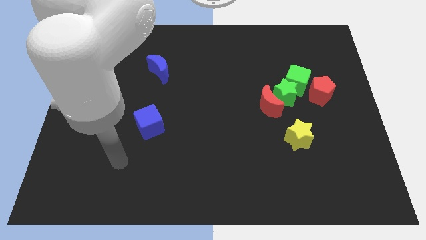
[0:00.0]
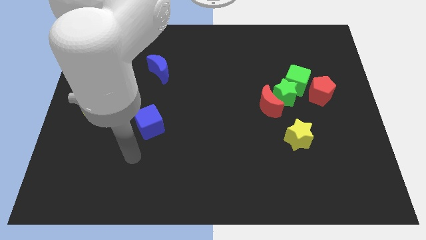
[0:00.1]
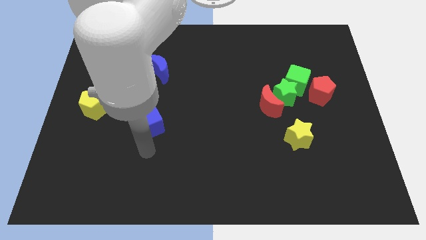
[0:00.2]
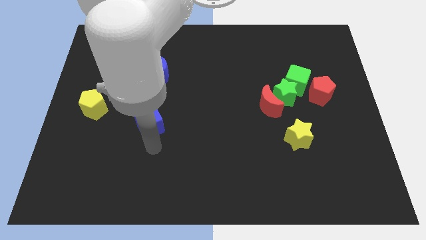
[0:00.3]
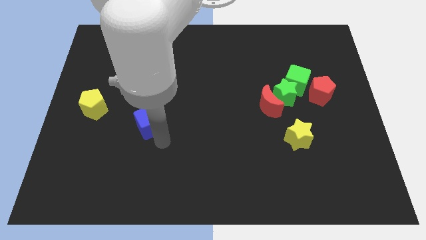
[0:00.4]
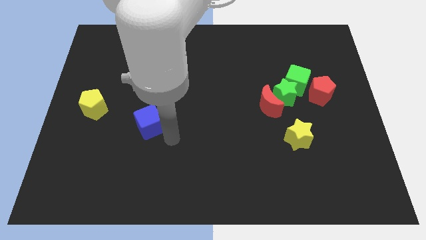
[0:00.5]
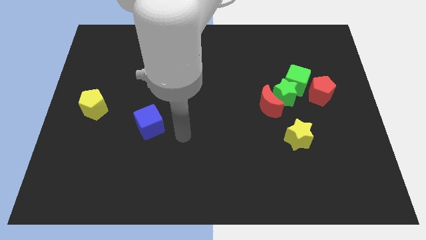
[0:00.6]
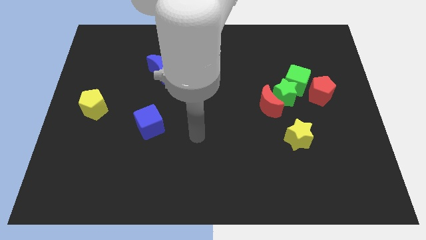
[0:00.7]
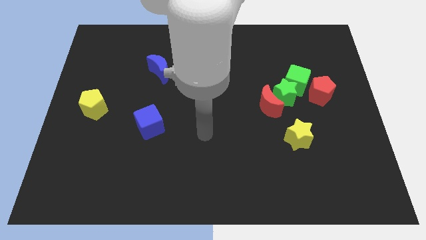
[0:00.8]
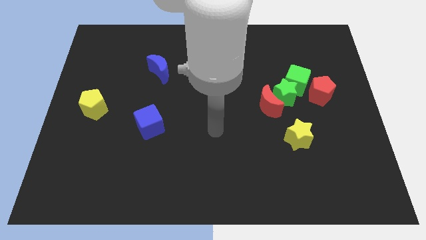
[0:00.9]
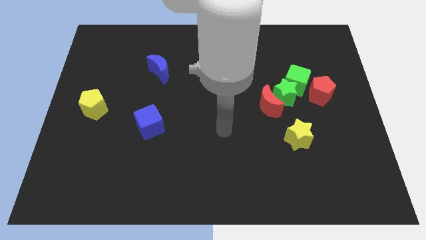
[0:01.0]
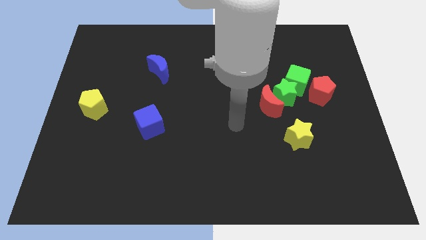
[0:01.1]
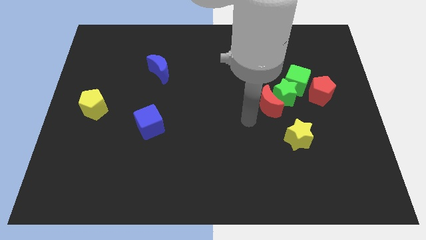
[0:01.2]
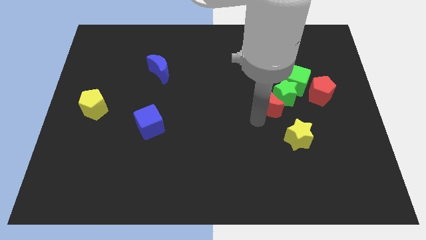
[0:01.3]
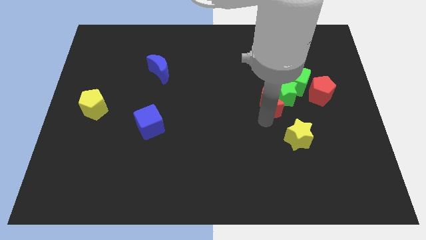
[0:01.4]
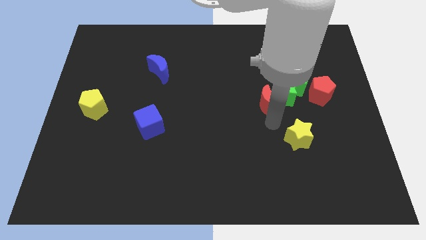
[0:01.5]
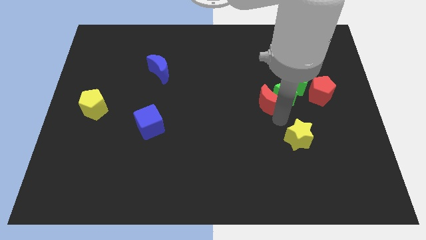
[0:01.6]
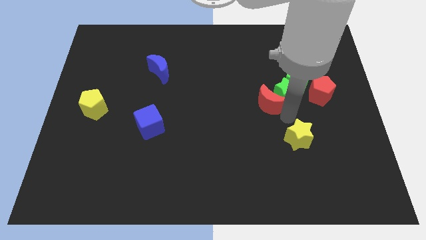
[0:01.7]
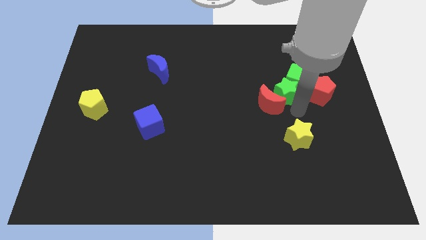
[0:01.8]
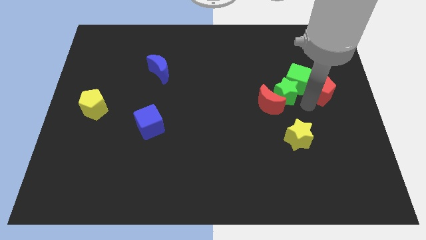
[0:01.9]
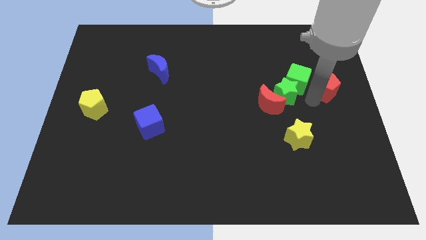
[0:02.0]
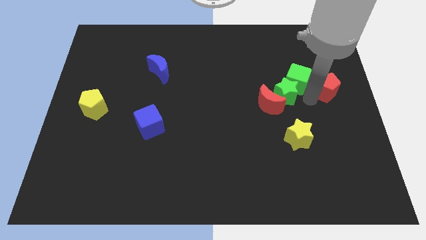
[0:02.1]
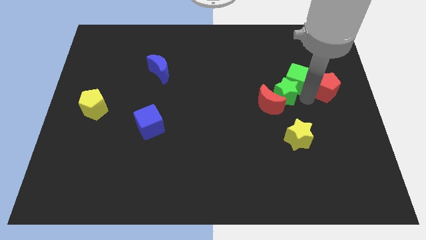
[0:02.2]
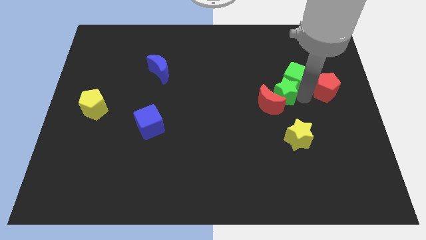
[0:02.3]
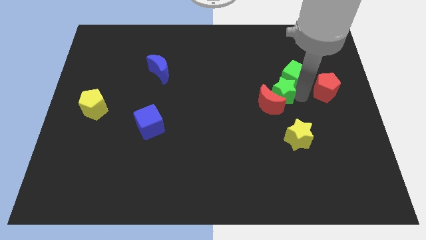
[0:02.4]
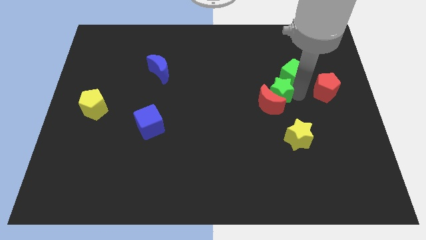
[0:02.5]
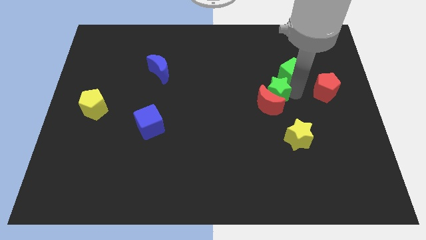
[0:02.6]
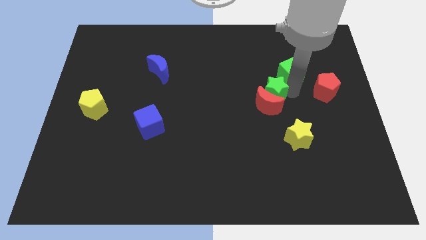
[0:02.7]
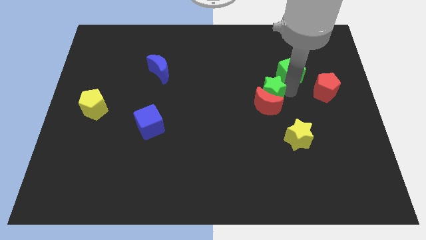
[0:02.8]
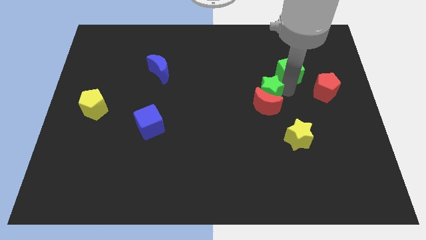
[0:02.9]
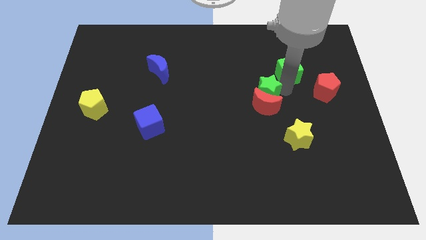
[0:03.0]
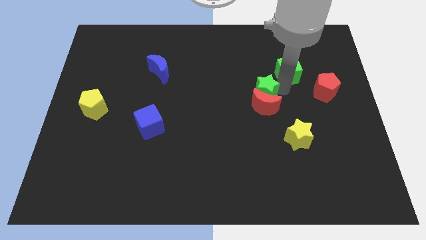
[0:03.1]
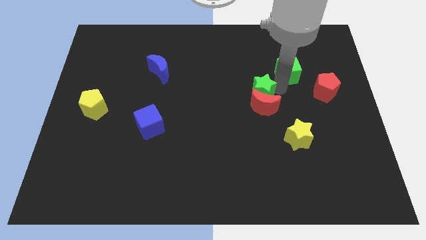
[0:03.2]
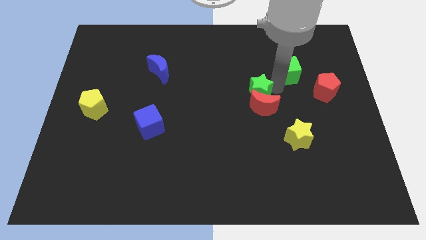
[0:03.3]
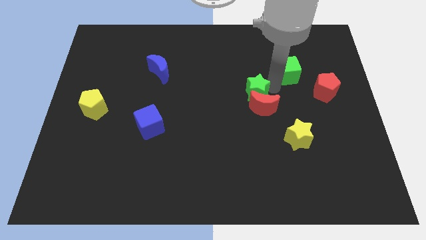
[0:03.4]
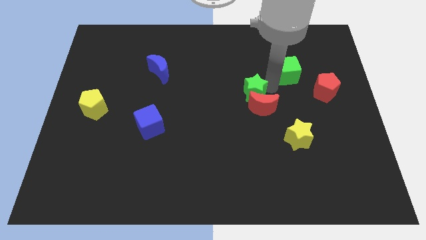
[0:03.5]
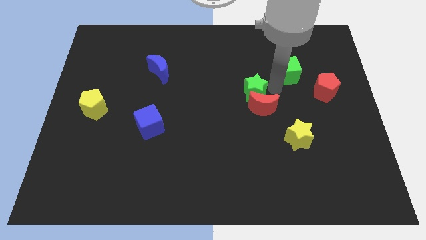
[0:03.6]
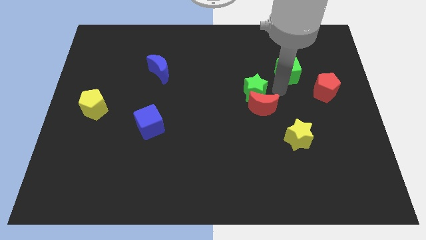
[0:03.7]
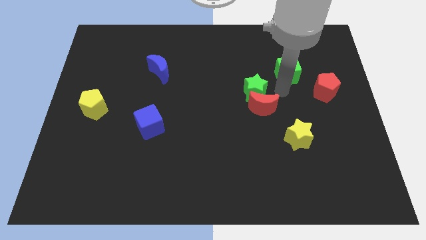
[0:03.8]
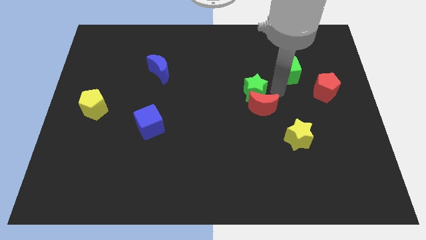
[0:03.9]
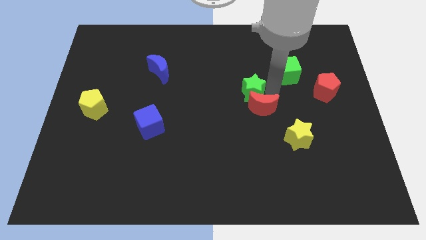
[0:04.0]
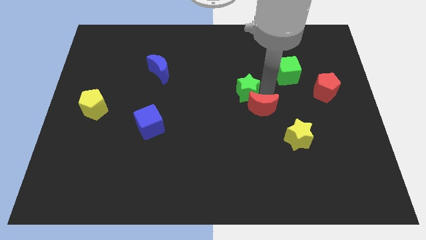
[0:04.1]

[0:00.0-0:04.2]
pull the green star apart from the clump

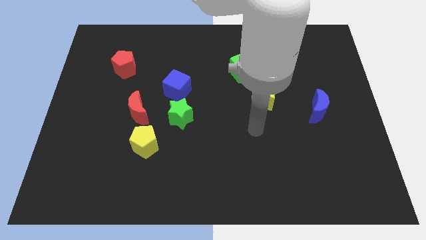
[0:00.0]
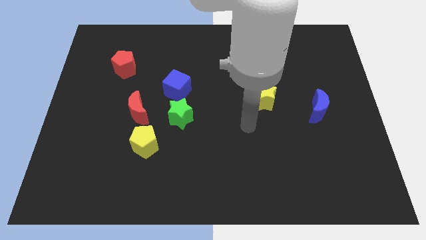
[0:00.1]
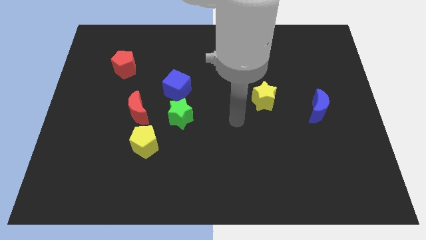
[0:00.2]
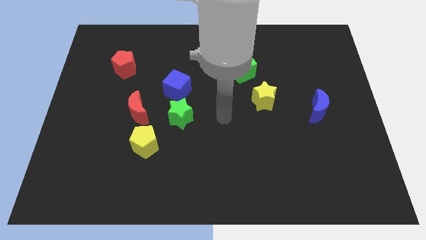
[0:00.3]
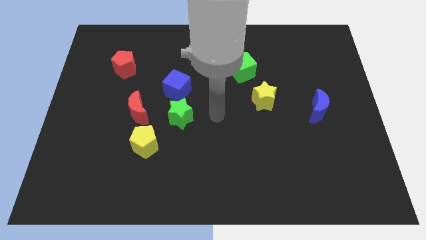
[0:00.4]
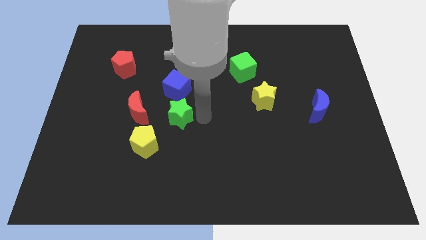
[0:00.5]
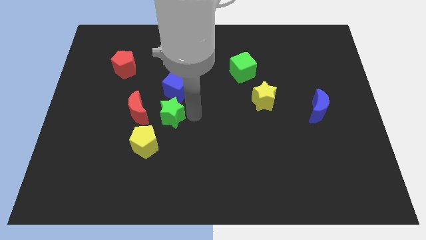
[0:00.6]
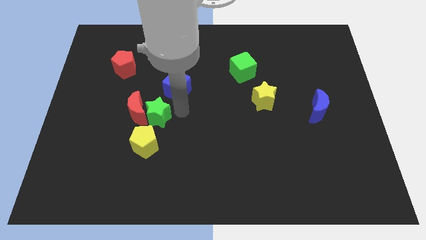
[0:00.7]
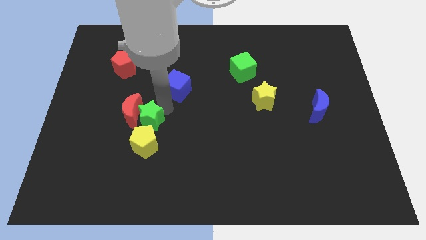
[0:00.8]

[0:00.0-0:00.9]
separate the blue cube from the green star

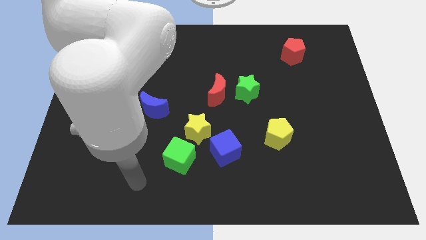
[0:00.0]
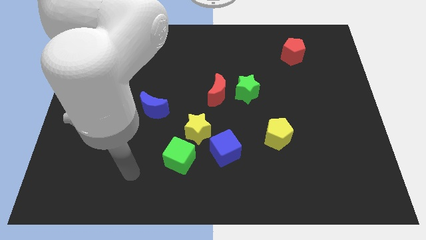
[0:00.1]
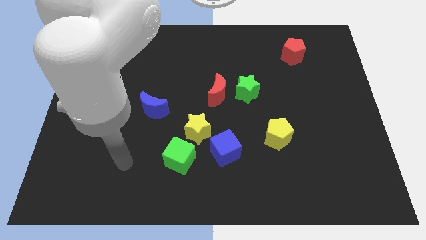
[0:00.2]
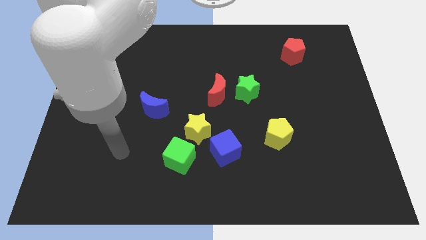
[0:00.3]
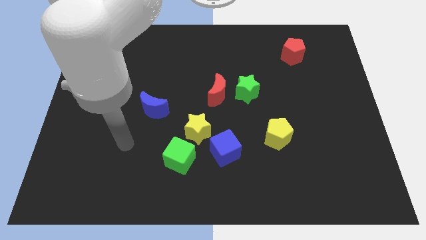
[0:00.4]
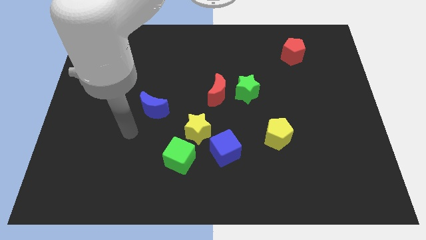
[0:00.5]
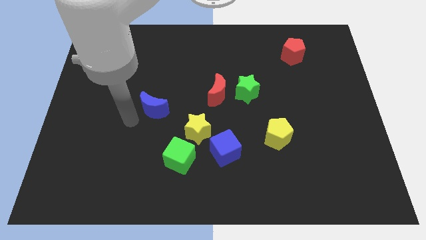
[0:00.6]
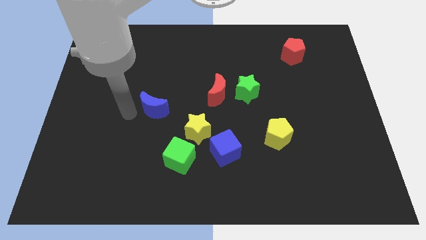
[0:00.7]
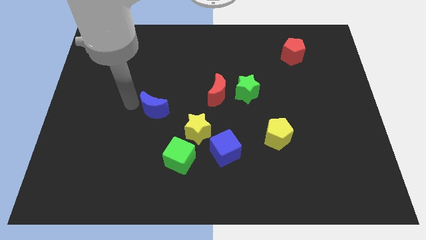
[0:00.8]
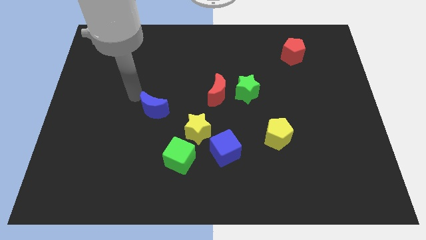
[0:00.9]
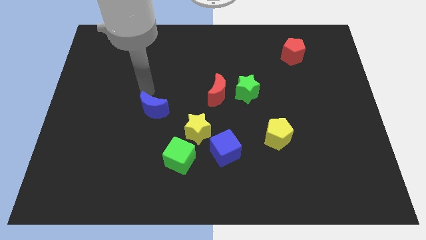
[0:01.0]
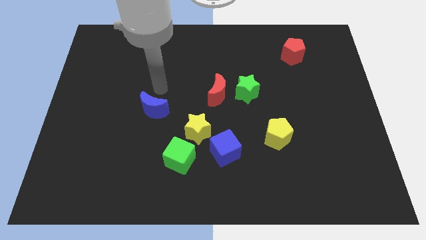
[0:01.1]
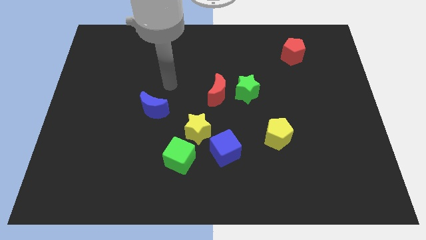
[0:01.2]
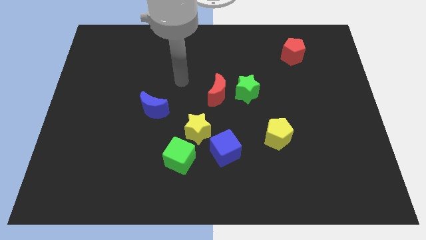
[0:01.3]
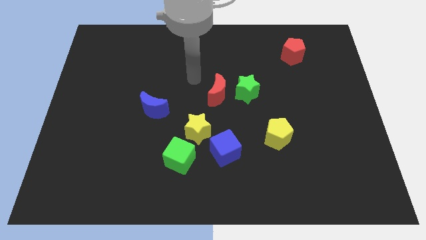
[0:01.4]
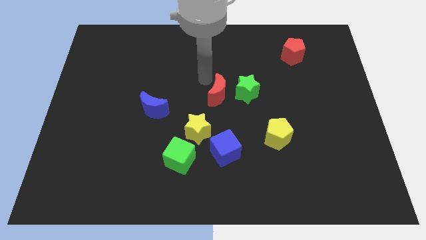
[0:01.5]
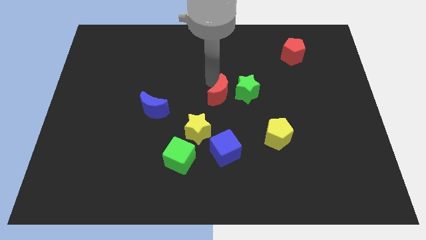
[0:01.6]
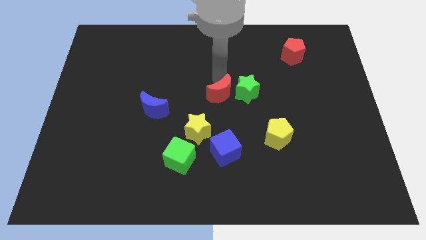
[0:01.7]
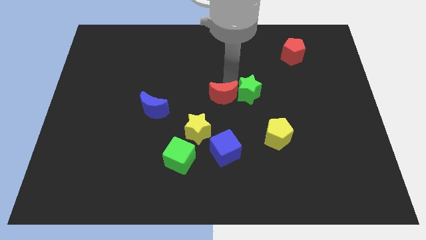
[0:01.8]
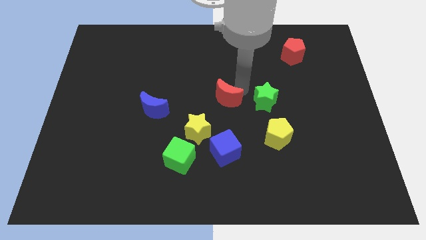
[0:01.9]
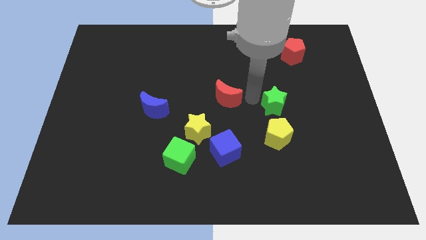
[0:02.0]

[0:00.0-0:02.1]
separate the red moon from the green star

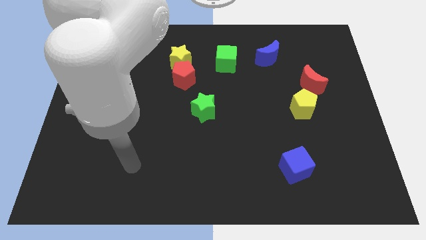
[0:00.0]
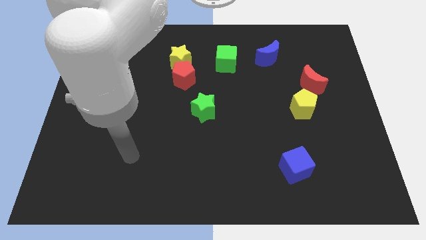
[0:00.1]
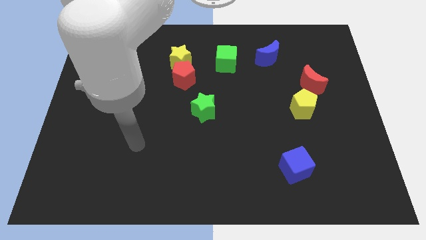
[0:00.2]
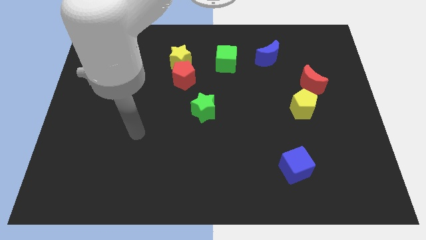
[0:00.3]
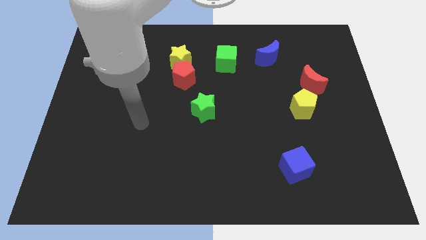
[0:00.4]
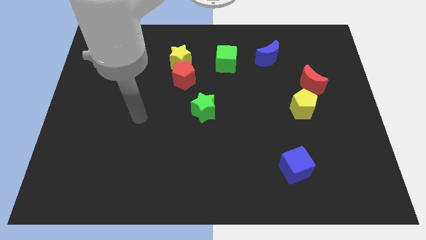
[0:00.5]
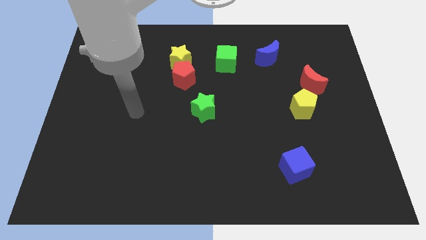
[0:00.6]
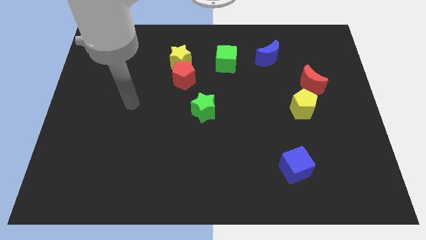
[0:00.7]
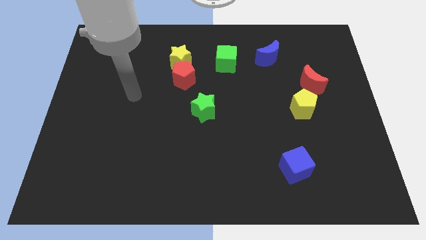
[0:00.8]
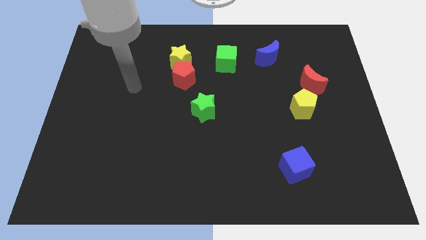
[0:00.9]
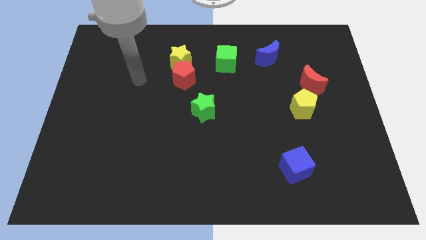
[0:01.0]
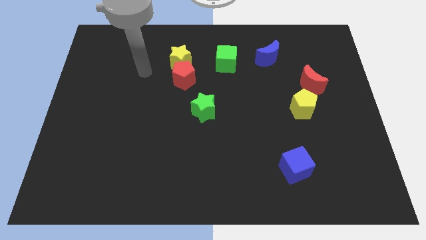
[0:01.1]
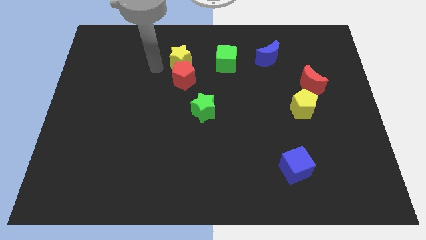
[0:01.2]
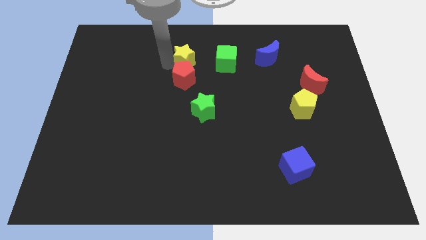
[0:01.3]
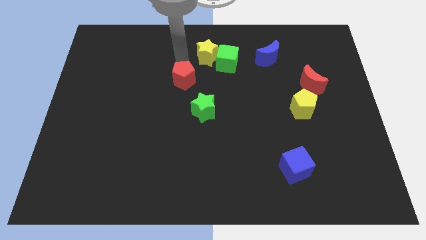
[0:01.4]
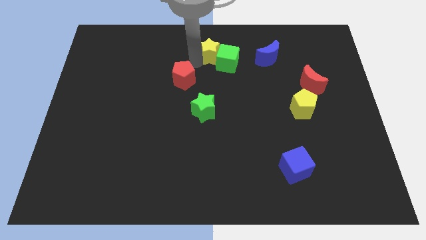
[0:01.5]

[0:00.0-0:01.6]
pull the red pentagon apart from the yellow star

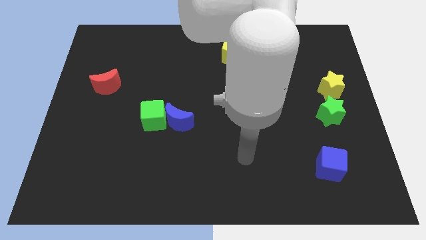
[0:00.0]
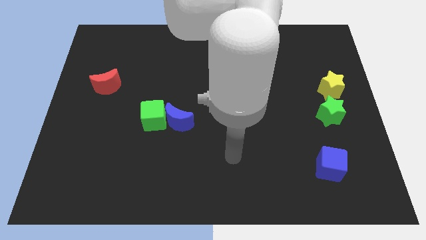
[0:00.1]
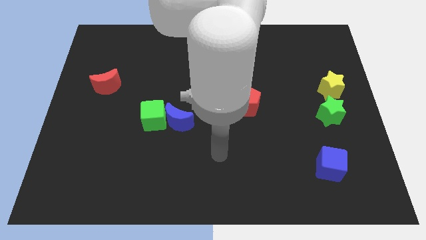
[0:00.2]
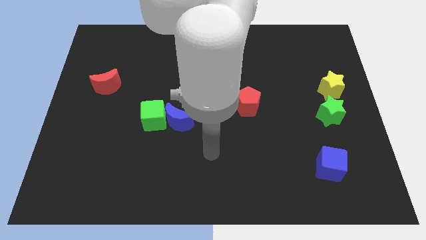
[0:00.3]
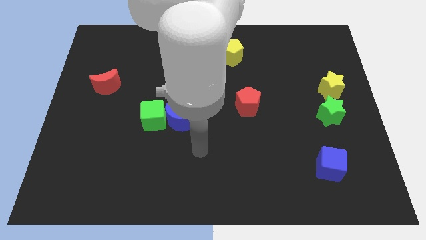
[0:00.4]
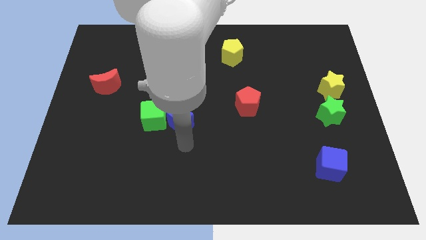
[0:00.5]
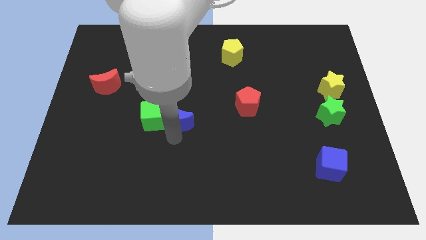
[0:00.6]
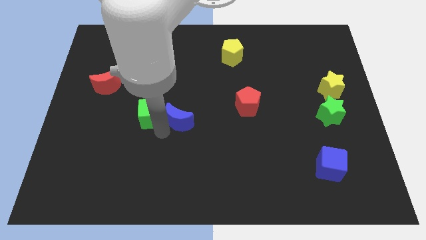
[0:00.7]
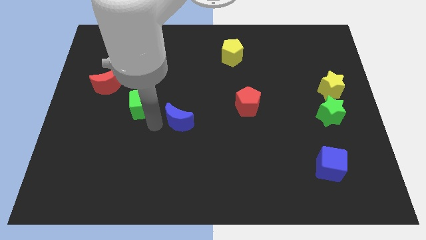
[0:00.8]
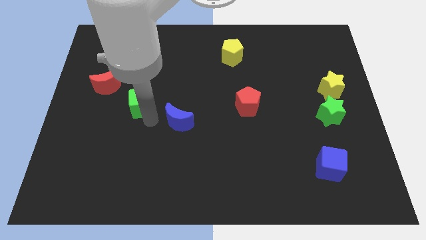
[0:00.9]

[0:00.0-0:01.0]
pull the blue moon apart from the green cube
